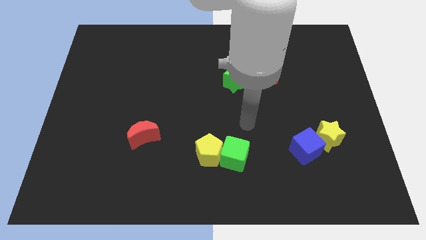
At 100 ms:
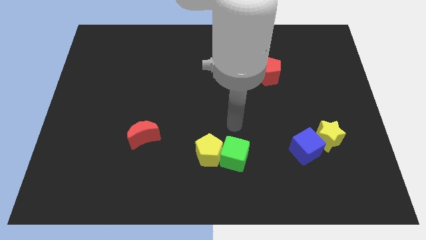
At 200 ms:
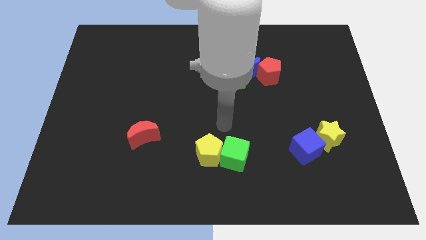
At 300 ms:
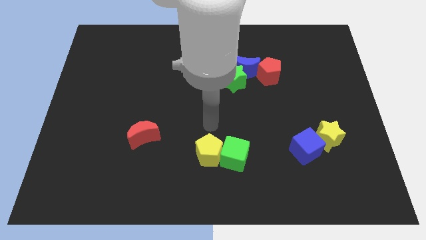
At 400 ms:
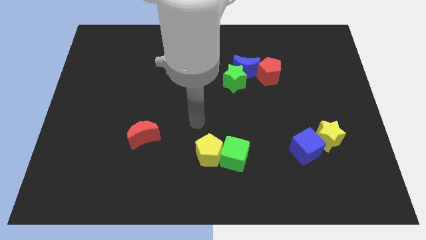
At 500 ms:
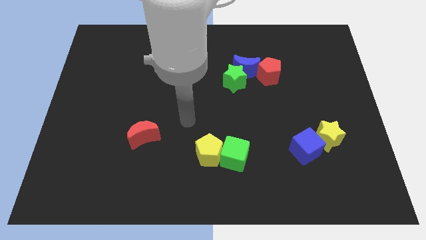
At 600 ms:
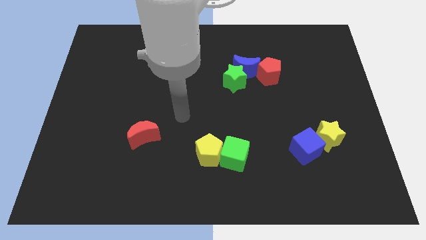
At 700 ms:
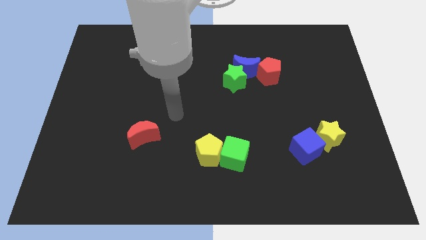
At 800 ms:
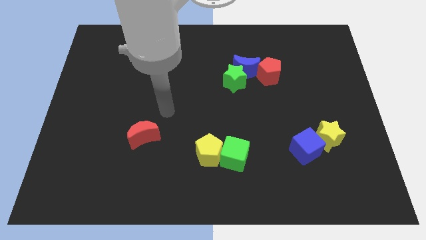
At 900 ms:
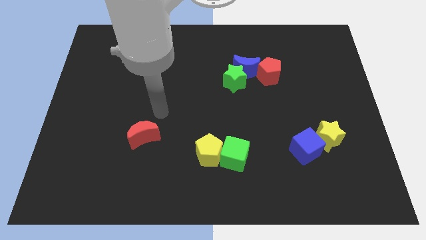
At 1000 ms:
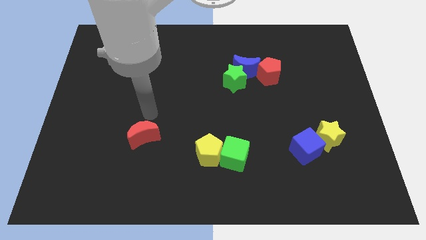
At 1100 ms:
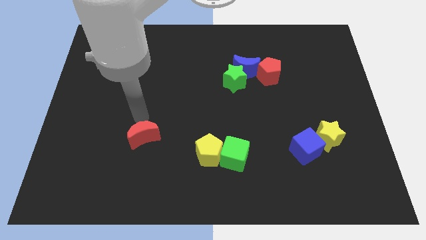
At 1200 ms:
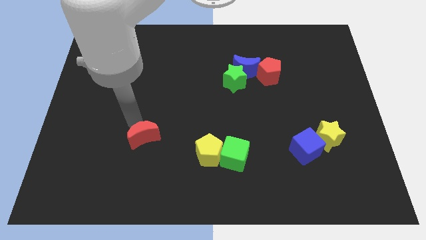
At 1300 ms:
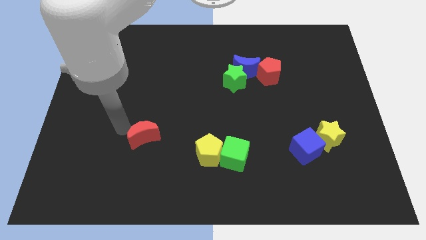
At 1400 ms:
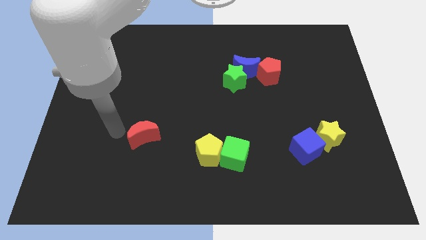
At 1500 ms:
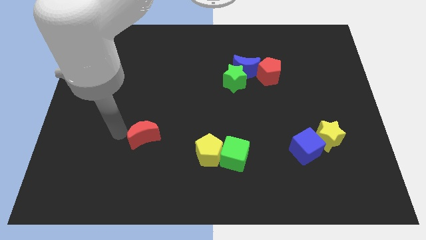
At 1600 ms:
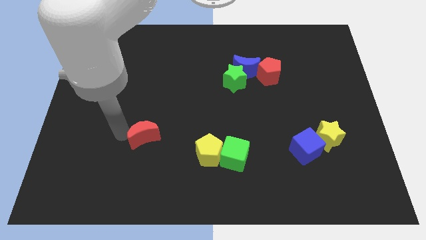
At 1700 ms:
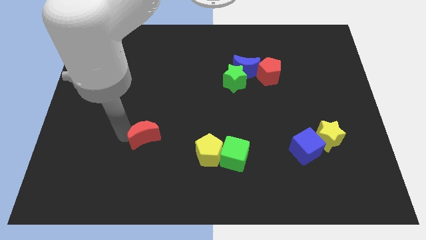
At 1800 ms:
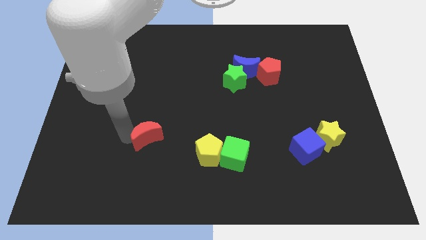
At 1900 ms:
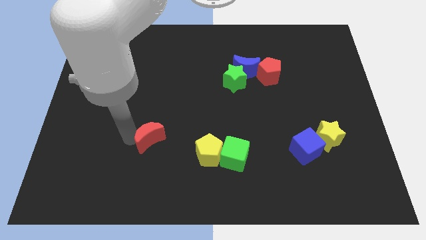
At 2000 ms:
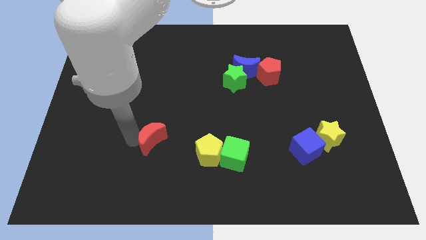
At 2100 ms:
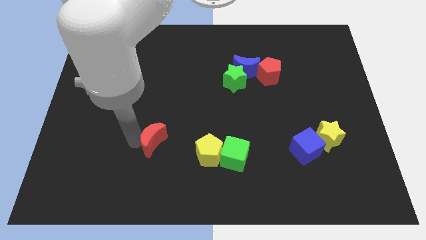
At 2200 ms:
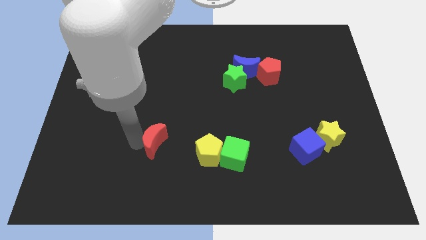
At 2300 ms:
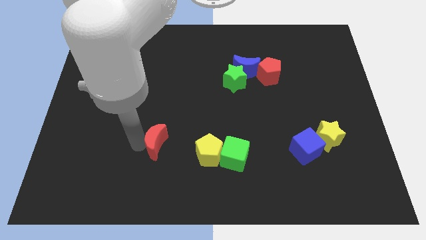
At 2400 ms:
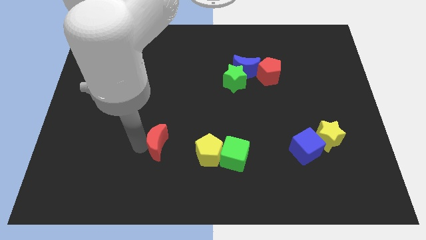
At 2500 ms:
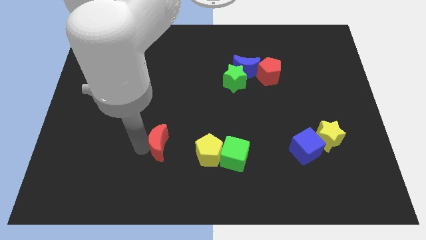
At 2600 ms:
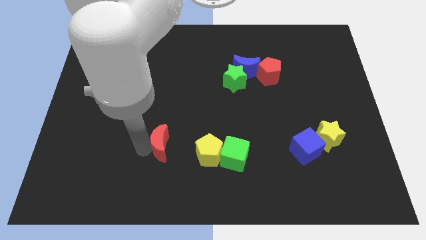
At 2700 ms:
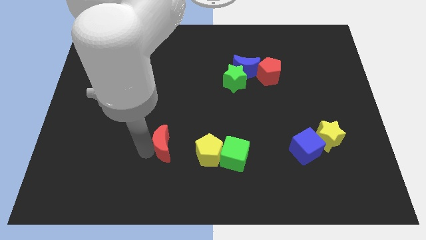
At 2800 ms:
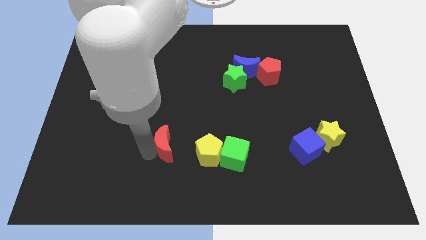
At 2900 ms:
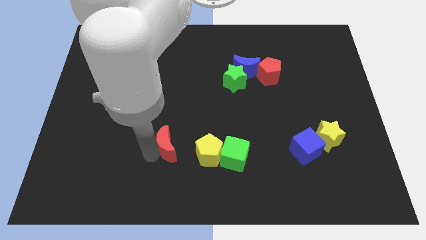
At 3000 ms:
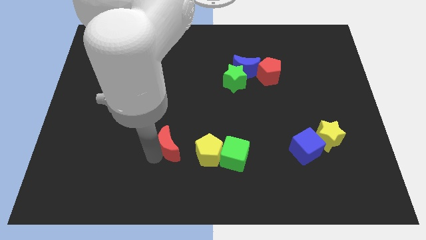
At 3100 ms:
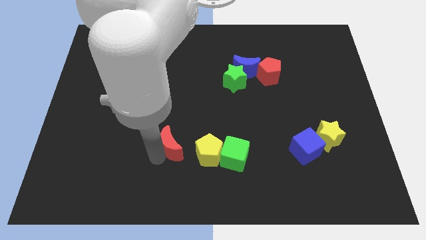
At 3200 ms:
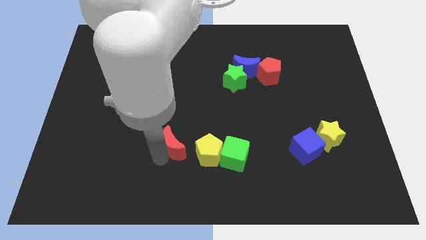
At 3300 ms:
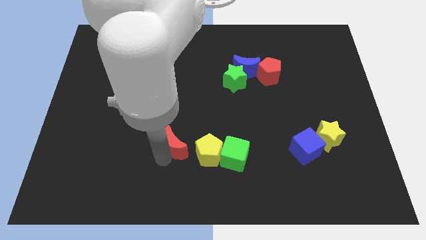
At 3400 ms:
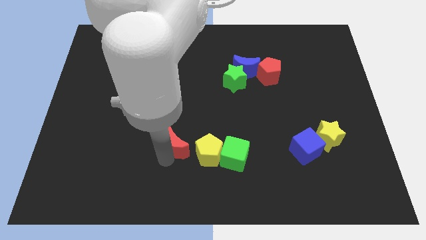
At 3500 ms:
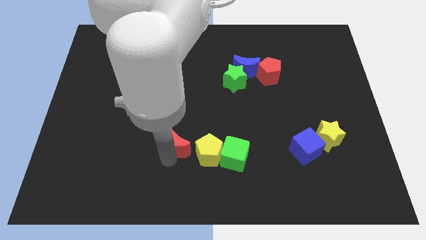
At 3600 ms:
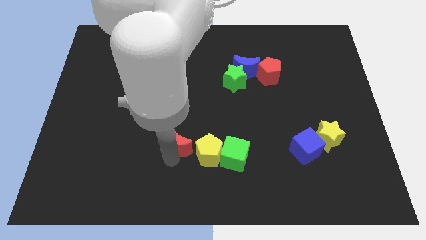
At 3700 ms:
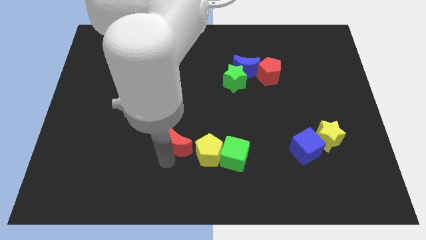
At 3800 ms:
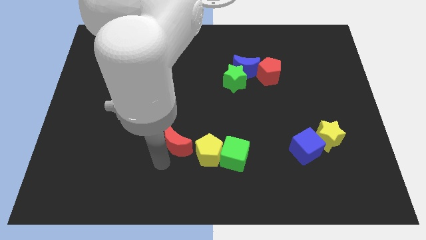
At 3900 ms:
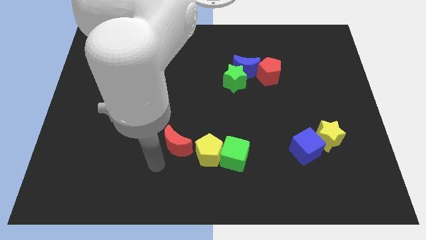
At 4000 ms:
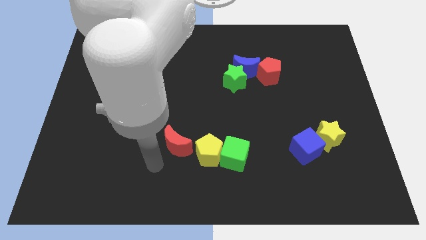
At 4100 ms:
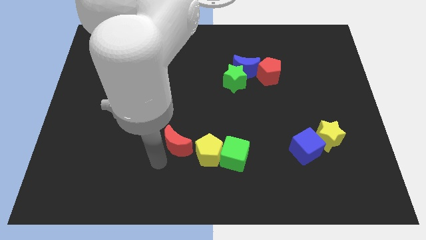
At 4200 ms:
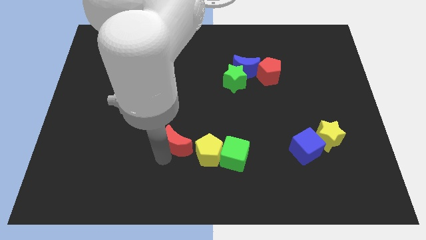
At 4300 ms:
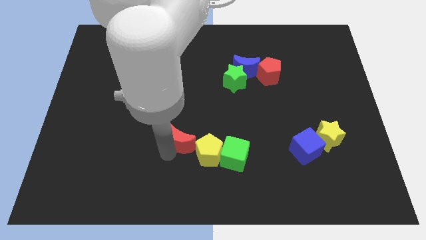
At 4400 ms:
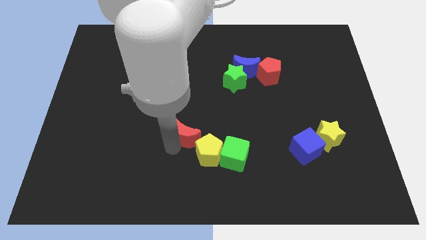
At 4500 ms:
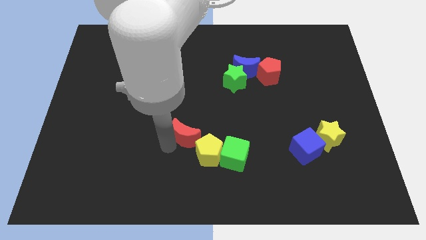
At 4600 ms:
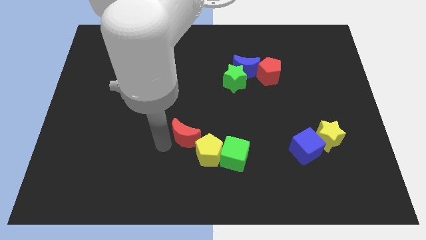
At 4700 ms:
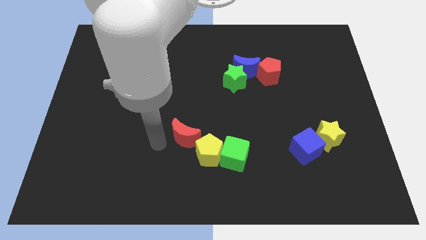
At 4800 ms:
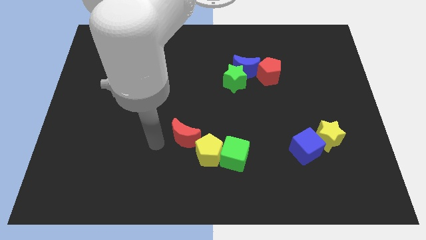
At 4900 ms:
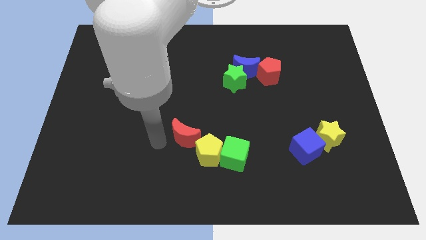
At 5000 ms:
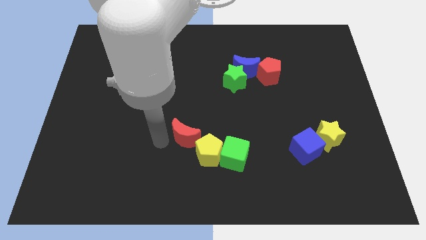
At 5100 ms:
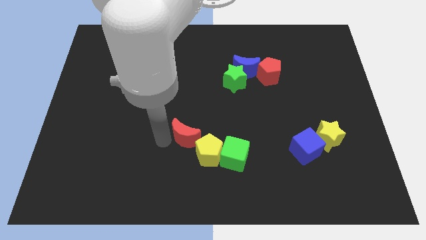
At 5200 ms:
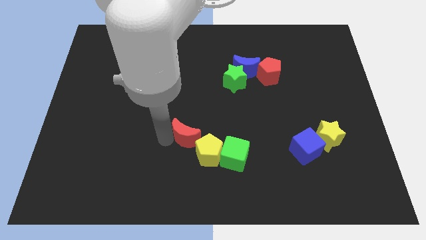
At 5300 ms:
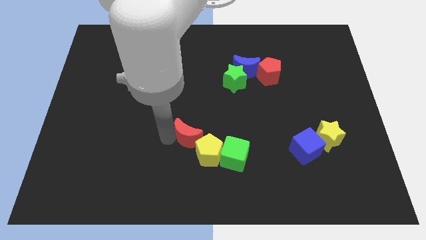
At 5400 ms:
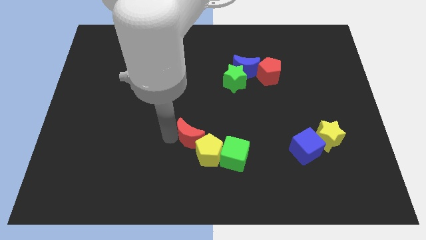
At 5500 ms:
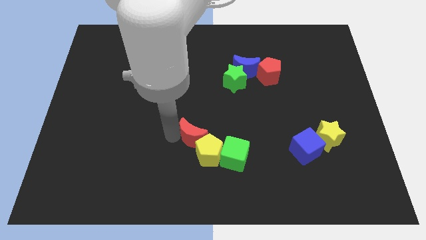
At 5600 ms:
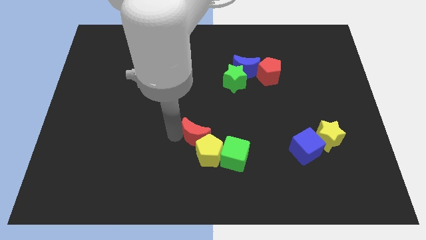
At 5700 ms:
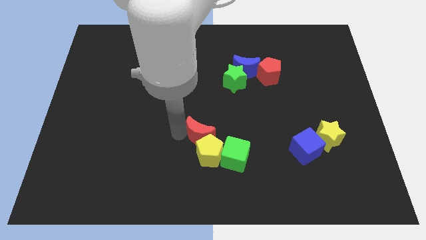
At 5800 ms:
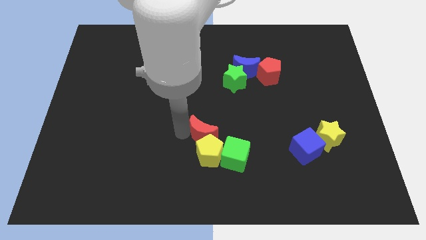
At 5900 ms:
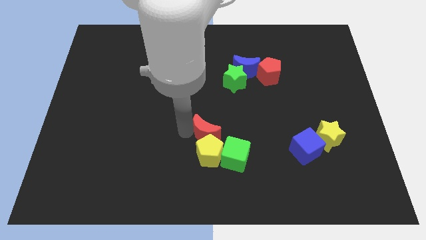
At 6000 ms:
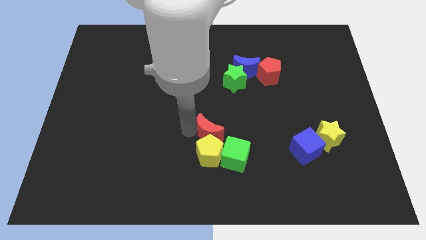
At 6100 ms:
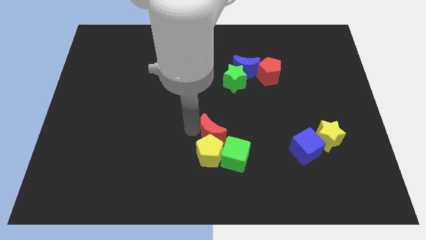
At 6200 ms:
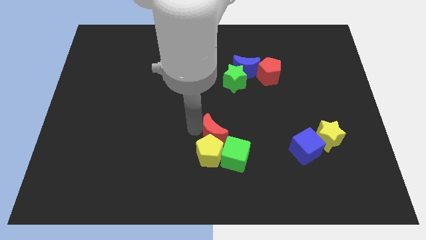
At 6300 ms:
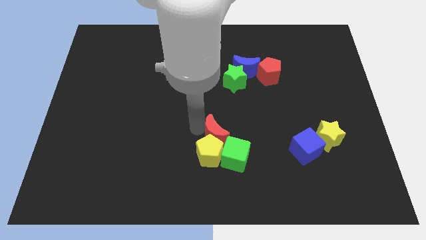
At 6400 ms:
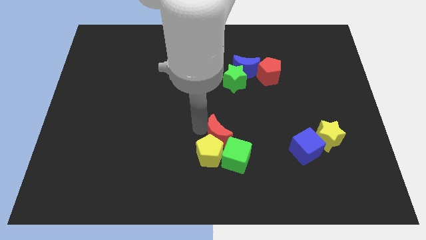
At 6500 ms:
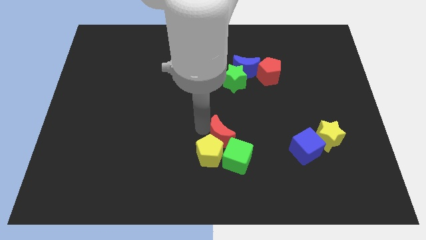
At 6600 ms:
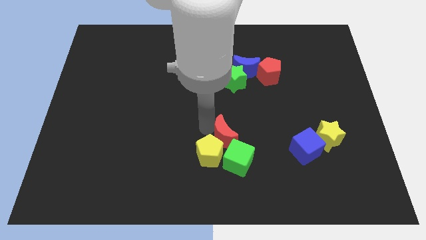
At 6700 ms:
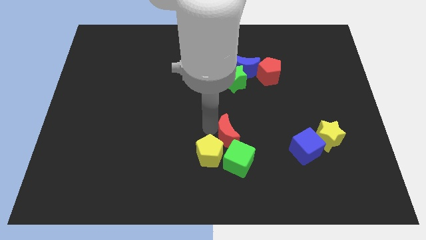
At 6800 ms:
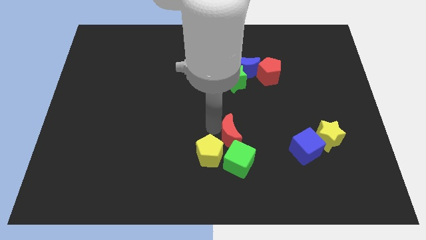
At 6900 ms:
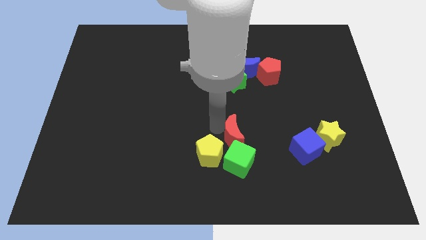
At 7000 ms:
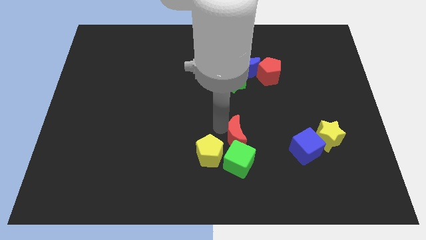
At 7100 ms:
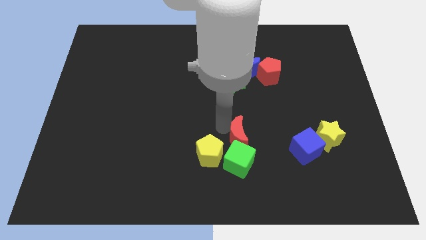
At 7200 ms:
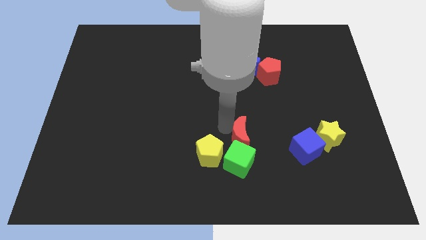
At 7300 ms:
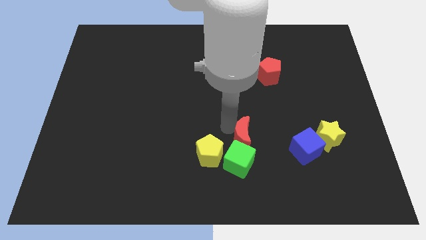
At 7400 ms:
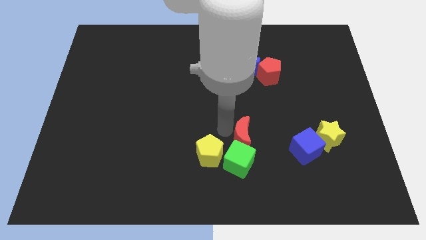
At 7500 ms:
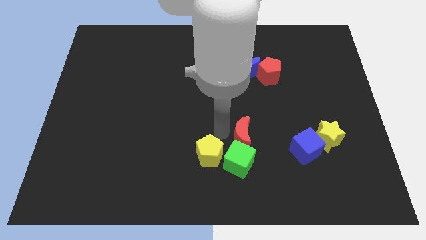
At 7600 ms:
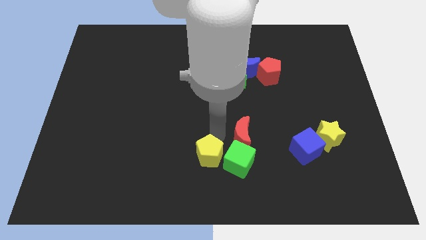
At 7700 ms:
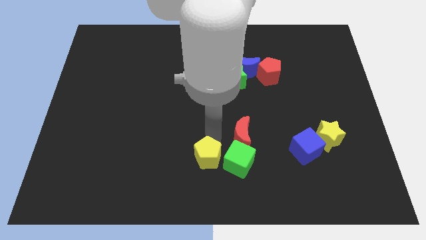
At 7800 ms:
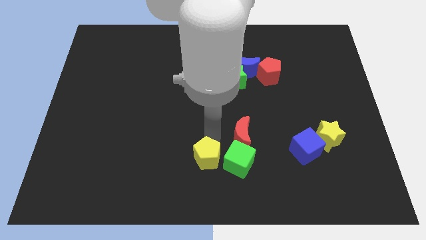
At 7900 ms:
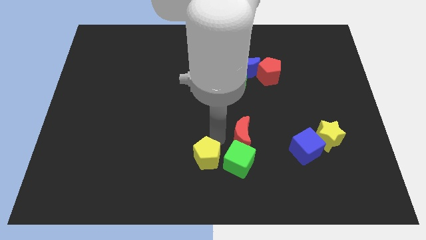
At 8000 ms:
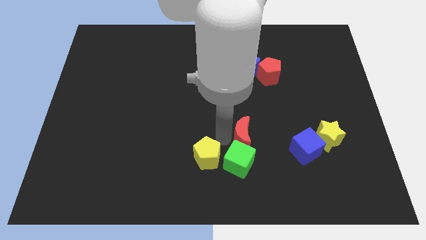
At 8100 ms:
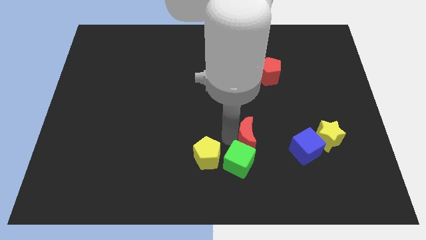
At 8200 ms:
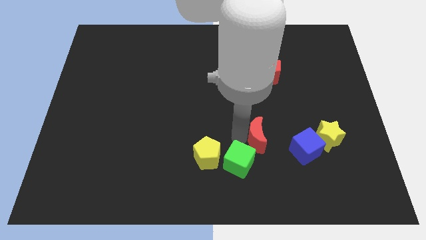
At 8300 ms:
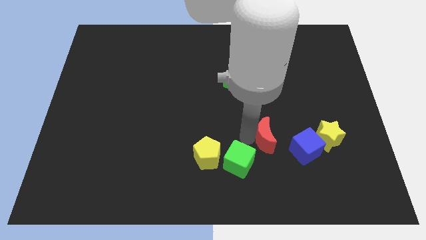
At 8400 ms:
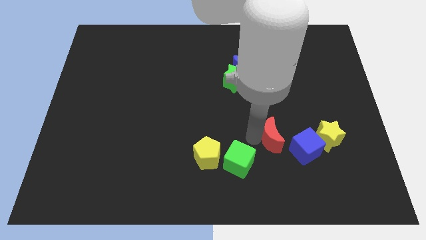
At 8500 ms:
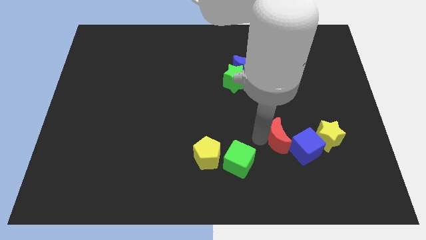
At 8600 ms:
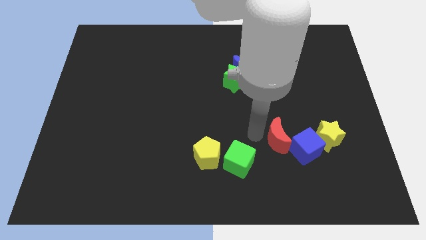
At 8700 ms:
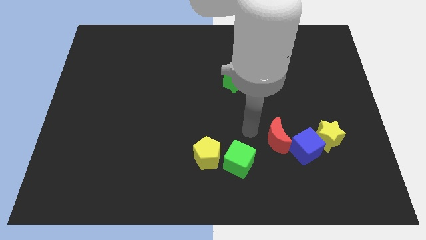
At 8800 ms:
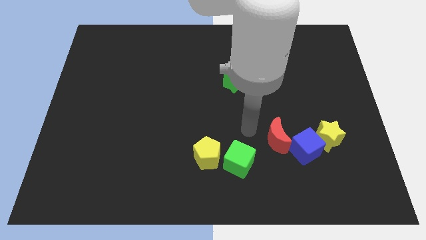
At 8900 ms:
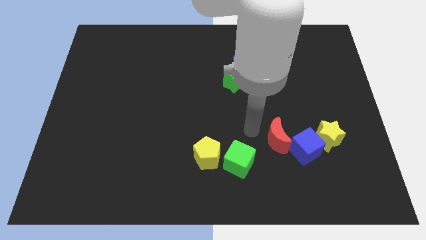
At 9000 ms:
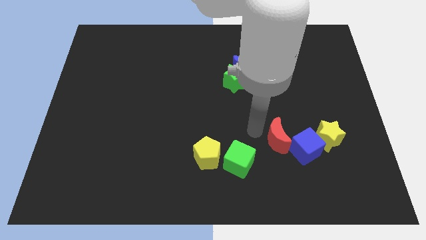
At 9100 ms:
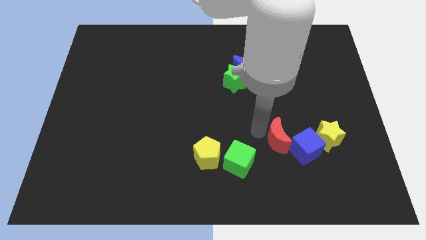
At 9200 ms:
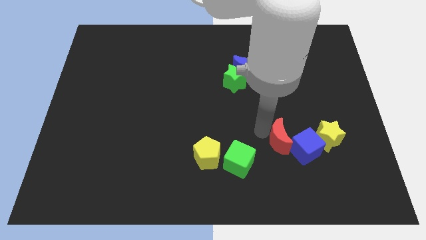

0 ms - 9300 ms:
push the red moon to the blue cube
